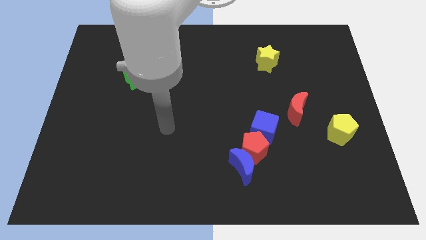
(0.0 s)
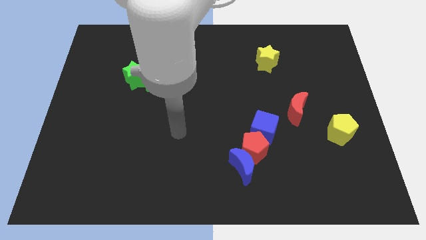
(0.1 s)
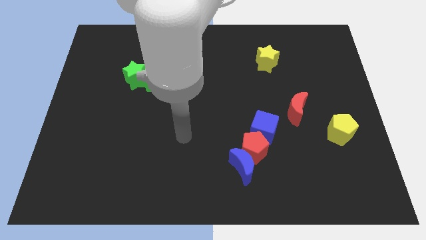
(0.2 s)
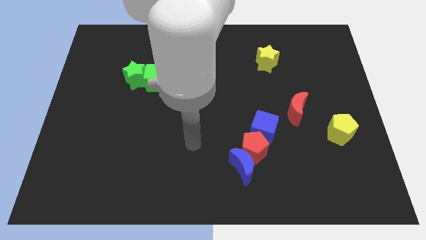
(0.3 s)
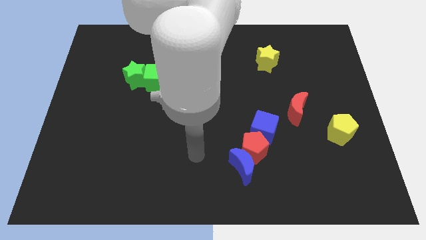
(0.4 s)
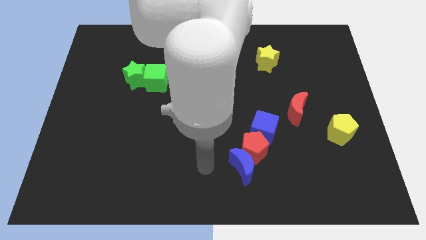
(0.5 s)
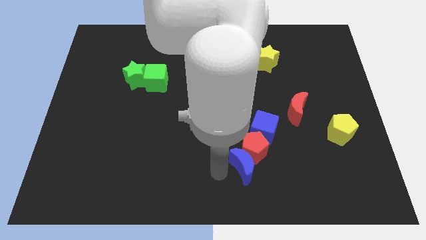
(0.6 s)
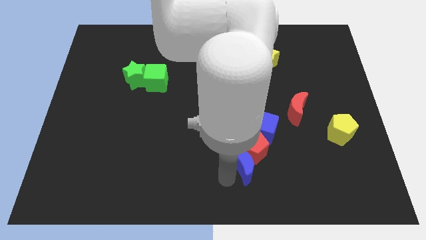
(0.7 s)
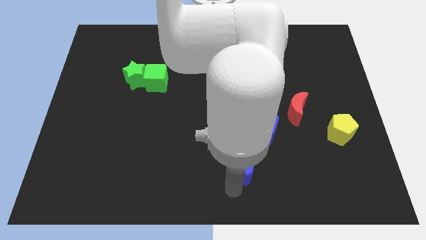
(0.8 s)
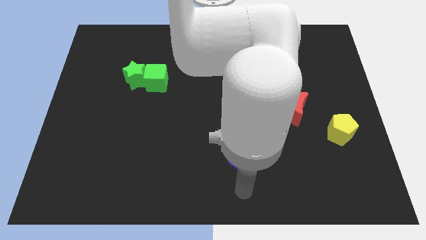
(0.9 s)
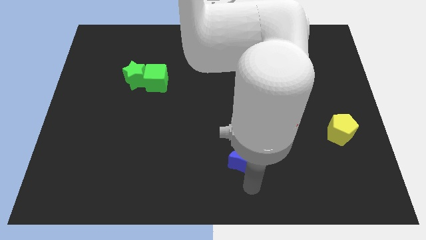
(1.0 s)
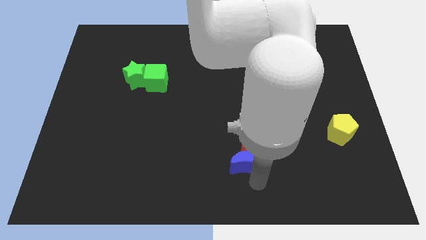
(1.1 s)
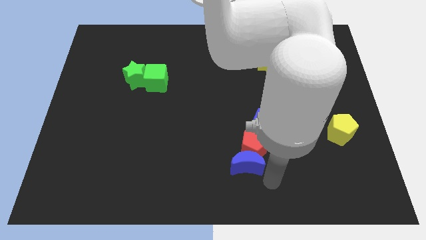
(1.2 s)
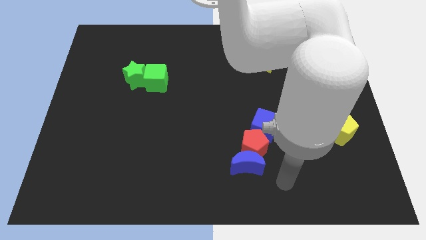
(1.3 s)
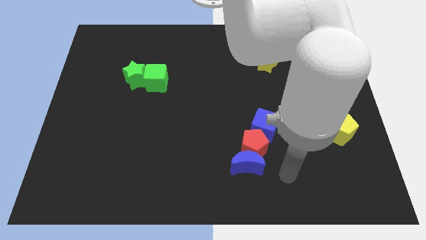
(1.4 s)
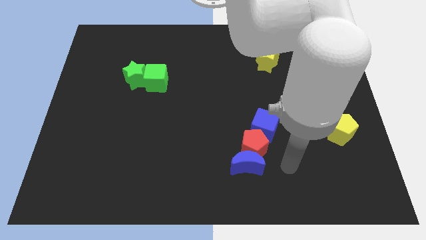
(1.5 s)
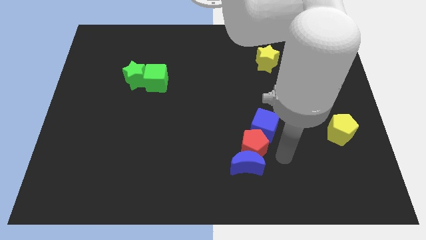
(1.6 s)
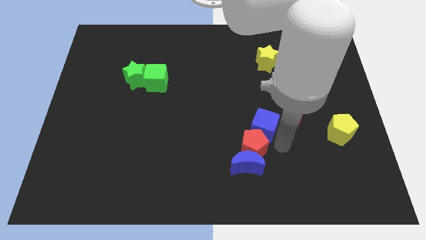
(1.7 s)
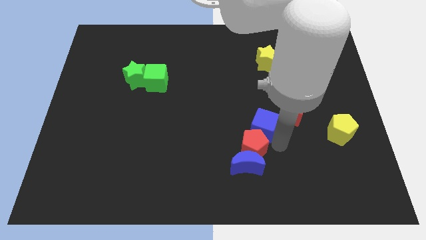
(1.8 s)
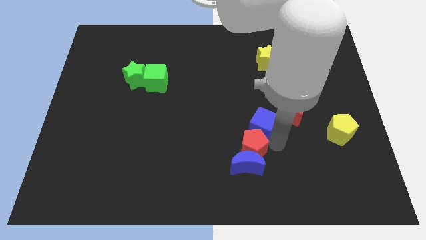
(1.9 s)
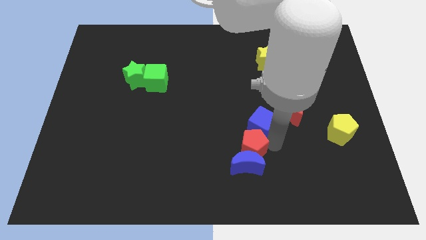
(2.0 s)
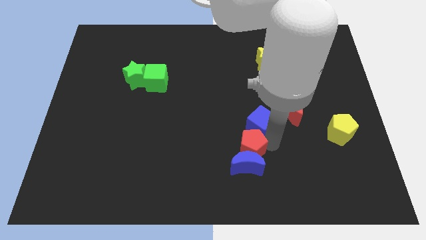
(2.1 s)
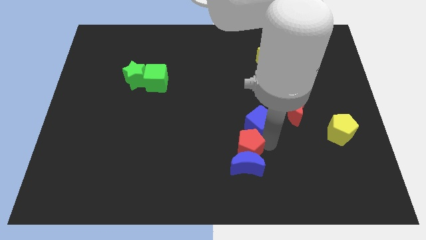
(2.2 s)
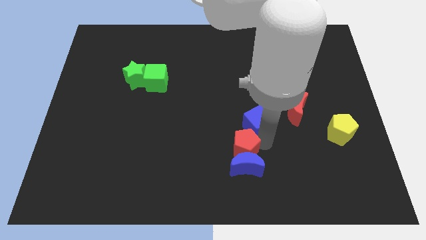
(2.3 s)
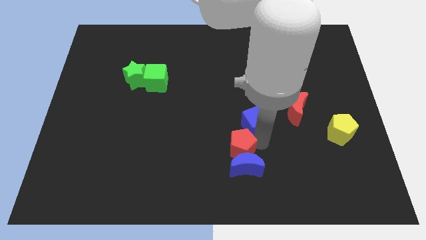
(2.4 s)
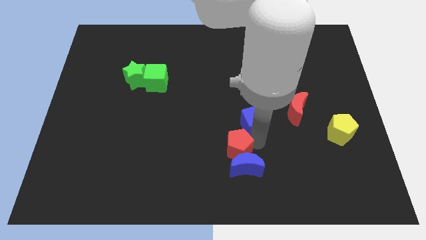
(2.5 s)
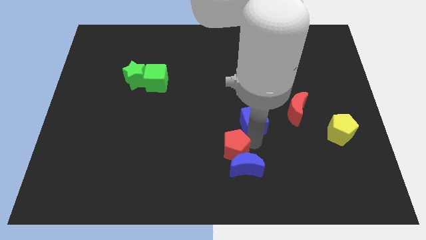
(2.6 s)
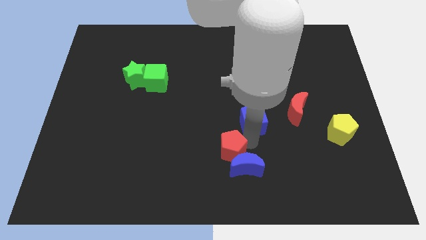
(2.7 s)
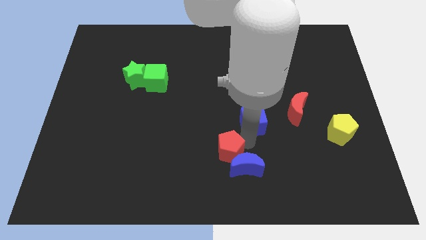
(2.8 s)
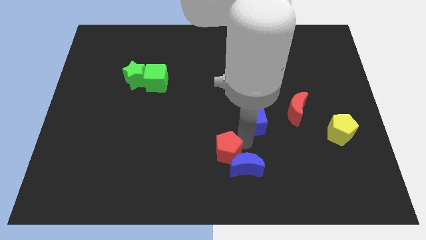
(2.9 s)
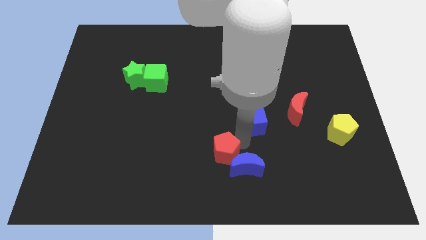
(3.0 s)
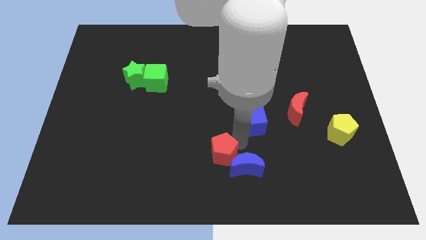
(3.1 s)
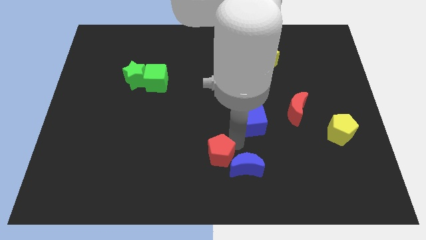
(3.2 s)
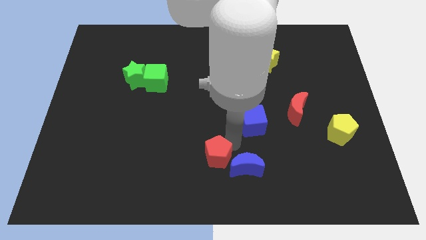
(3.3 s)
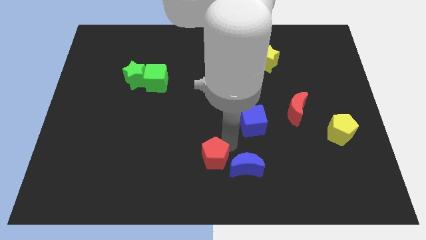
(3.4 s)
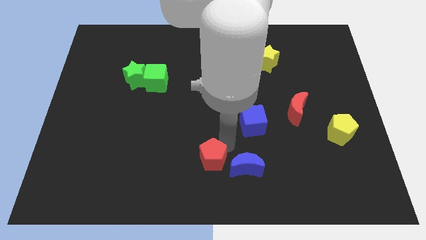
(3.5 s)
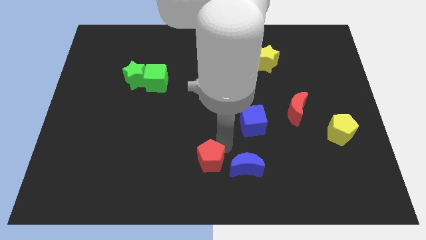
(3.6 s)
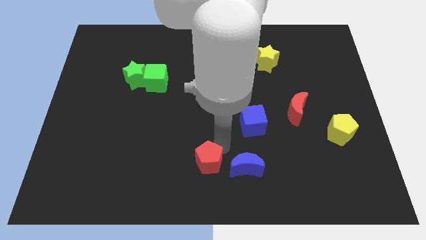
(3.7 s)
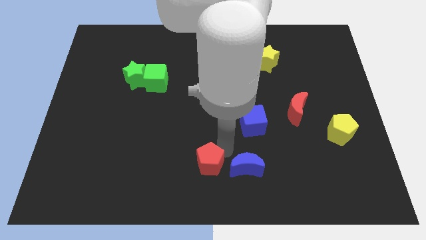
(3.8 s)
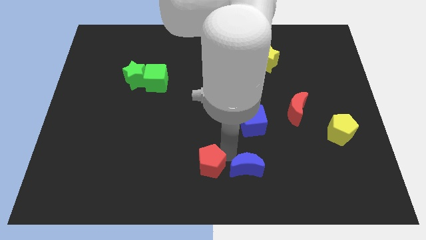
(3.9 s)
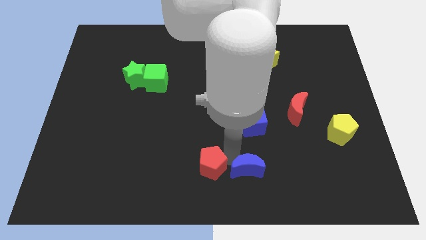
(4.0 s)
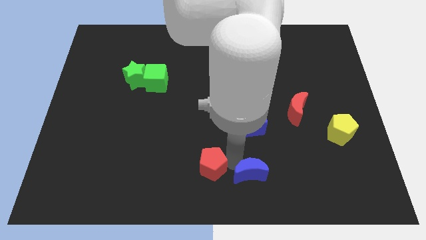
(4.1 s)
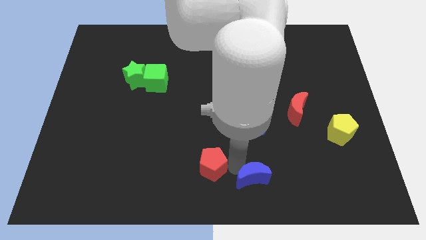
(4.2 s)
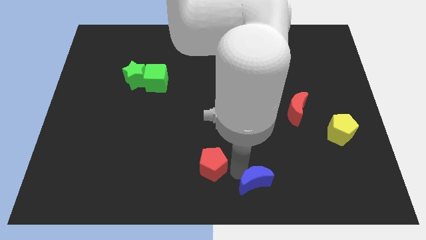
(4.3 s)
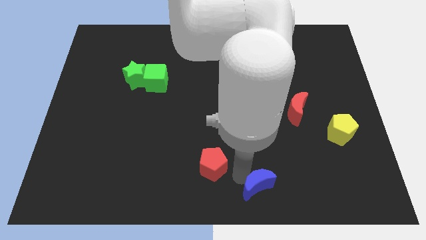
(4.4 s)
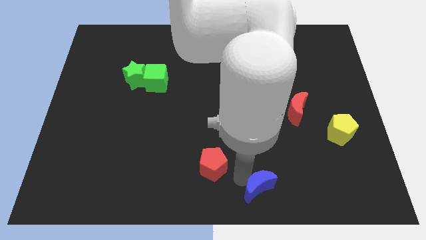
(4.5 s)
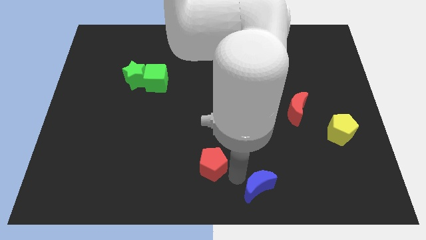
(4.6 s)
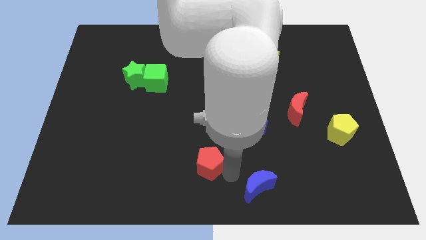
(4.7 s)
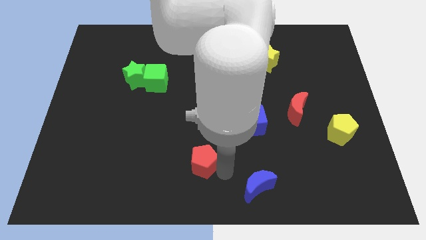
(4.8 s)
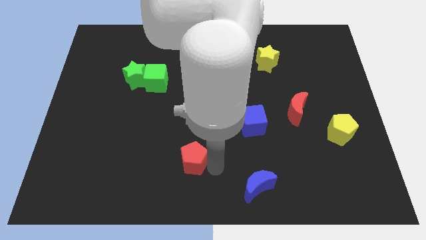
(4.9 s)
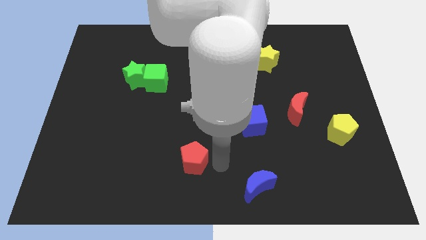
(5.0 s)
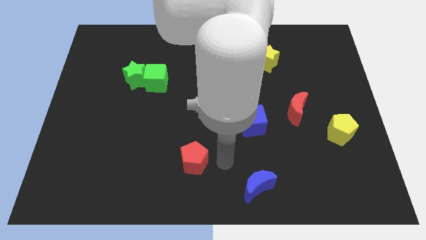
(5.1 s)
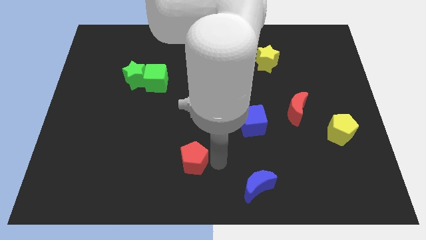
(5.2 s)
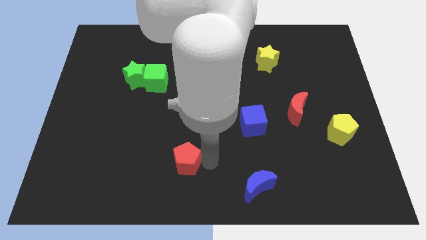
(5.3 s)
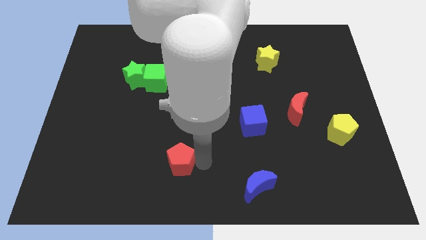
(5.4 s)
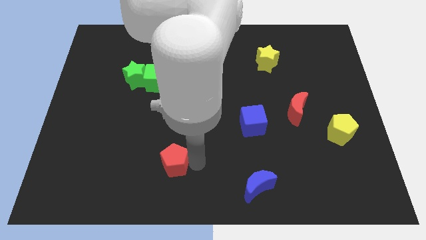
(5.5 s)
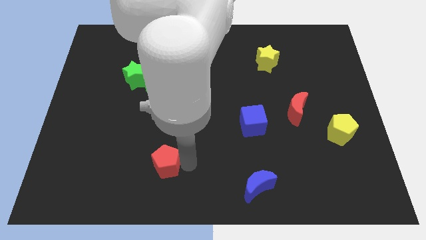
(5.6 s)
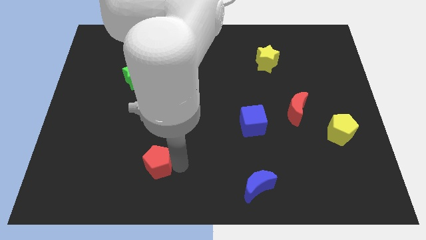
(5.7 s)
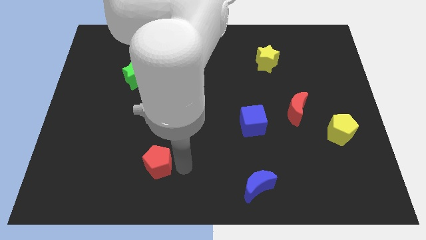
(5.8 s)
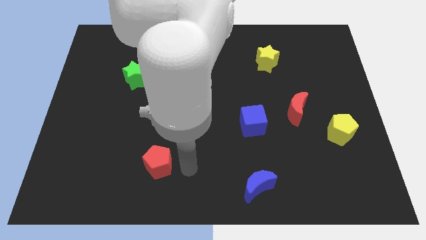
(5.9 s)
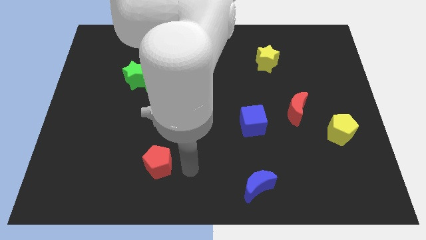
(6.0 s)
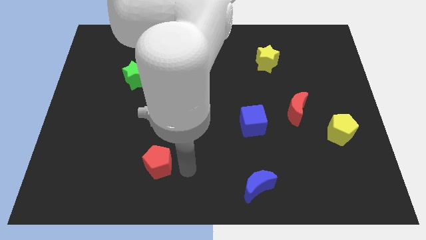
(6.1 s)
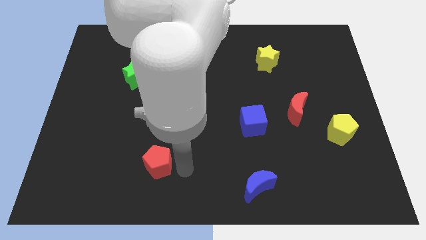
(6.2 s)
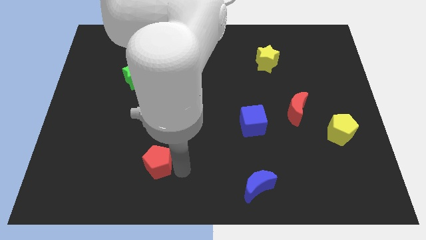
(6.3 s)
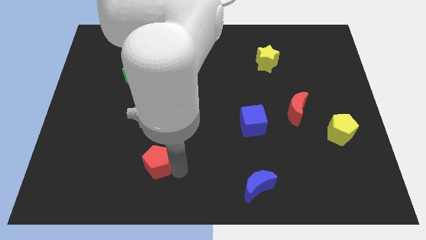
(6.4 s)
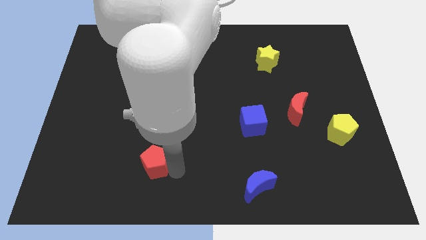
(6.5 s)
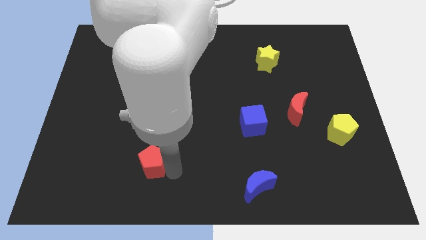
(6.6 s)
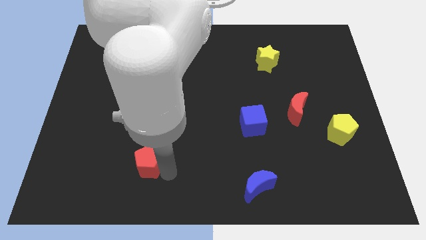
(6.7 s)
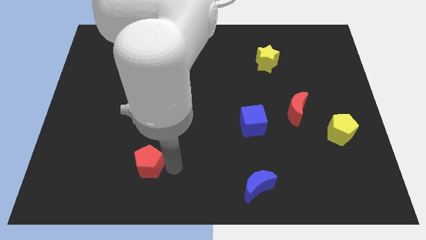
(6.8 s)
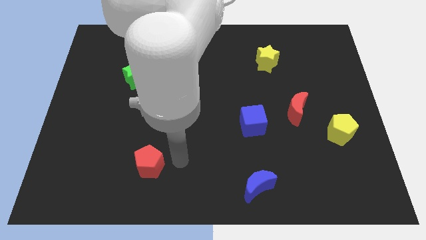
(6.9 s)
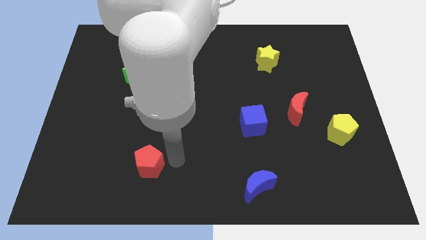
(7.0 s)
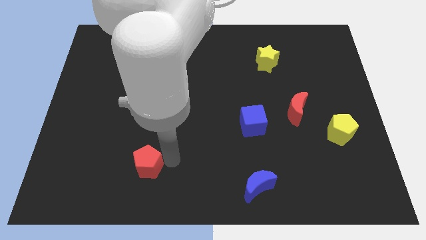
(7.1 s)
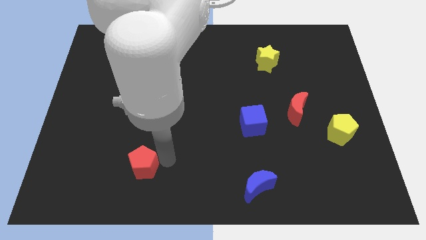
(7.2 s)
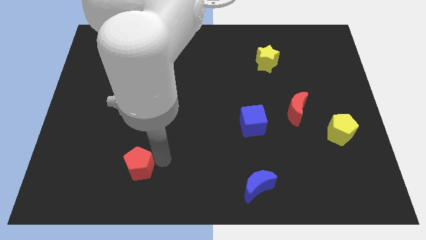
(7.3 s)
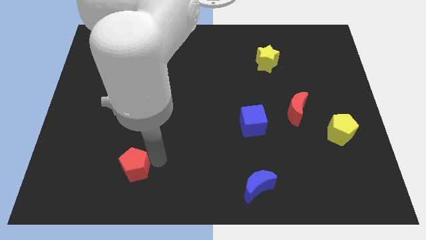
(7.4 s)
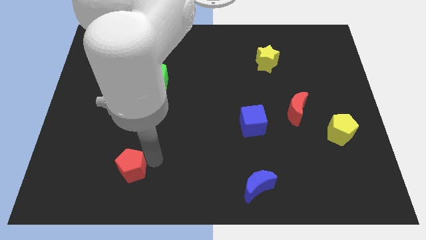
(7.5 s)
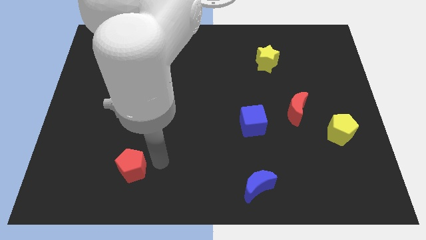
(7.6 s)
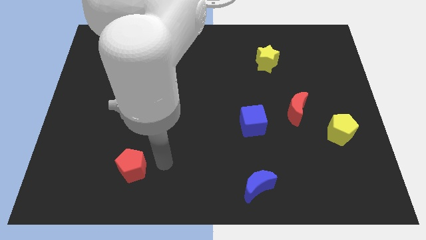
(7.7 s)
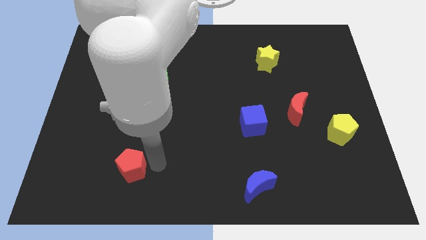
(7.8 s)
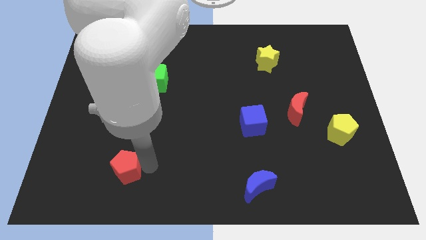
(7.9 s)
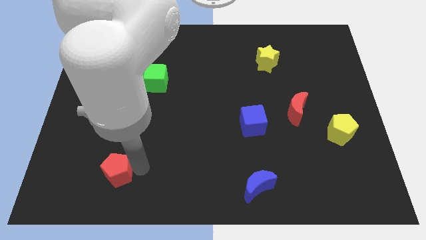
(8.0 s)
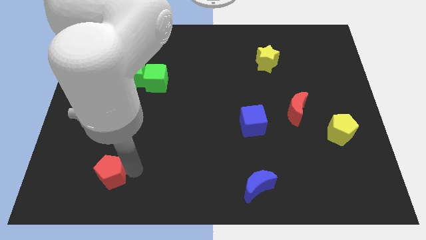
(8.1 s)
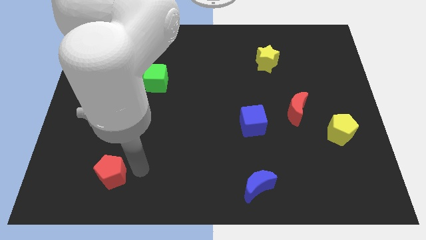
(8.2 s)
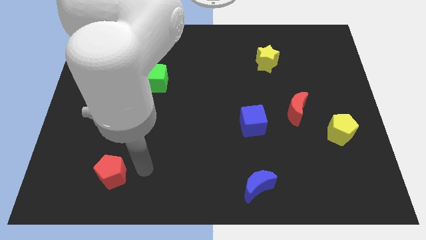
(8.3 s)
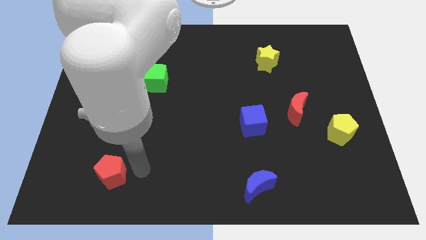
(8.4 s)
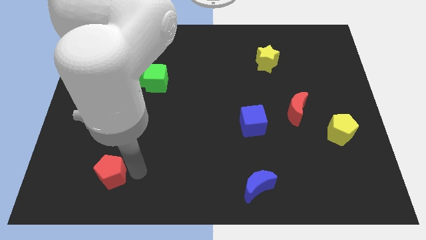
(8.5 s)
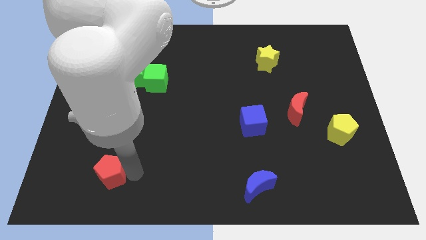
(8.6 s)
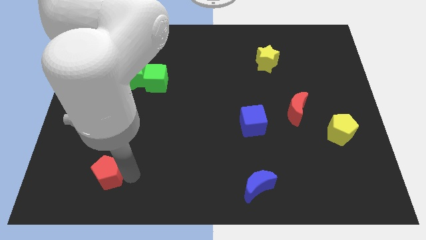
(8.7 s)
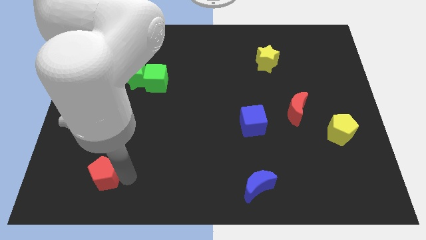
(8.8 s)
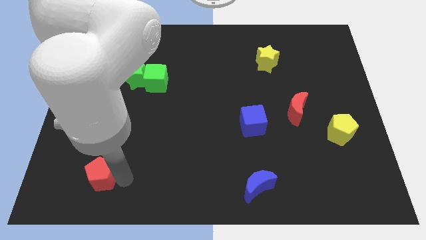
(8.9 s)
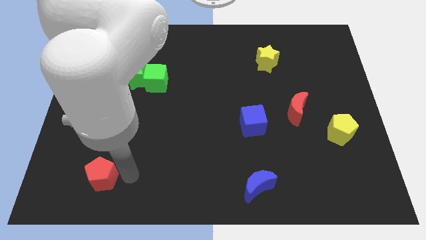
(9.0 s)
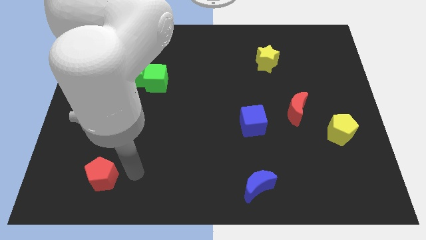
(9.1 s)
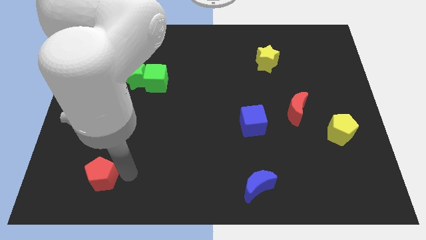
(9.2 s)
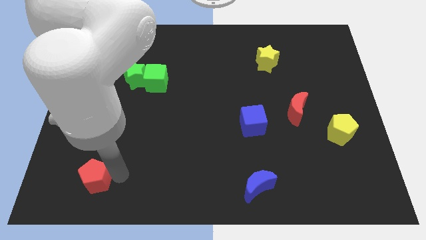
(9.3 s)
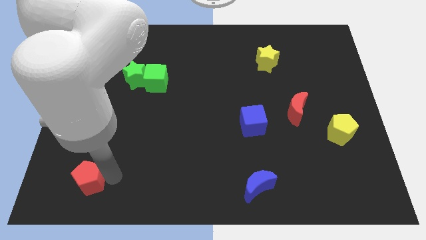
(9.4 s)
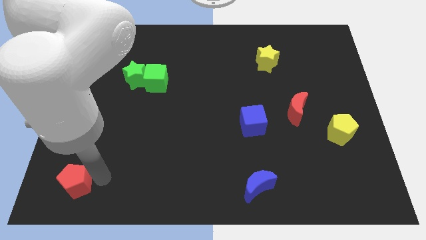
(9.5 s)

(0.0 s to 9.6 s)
put the red pentagon to the bottom left
